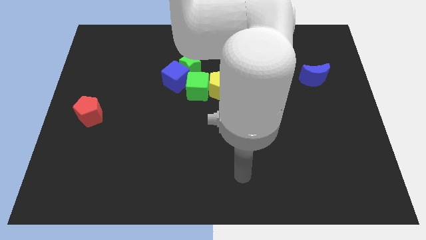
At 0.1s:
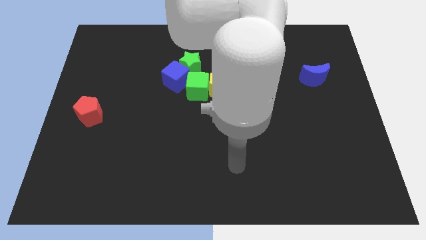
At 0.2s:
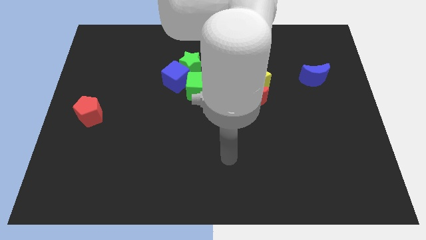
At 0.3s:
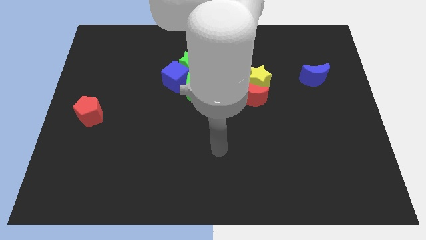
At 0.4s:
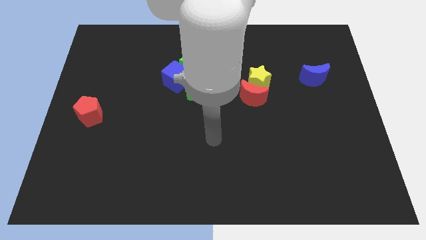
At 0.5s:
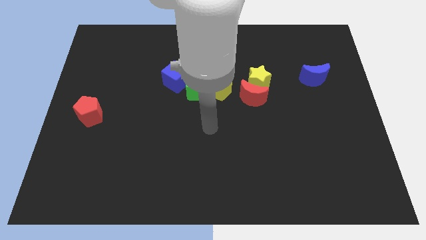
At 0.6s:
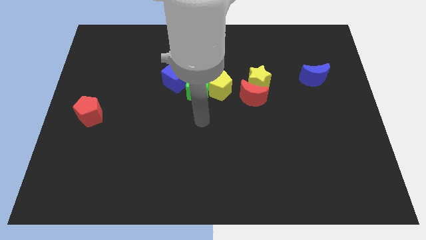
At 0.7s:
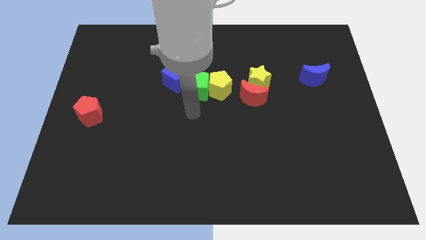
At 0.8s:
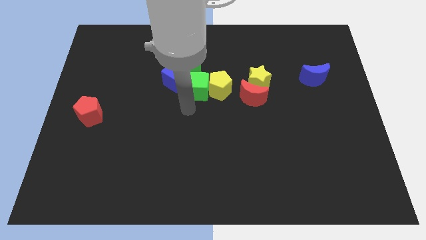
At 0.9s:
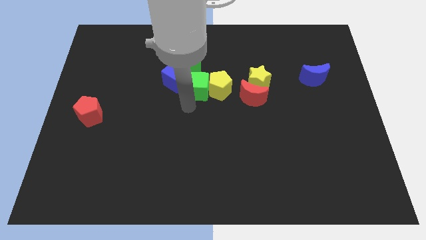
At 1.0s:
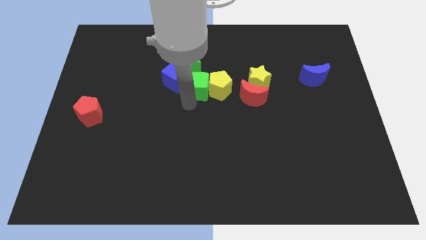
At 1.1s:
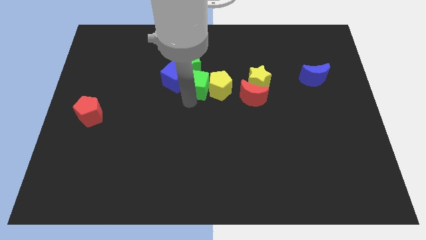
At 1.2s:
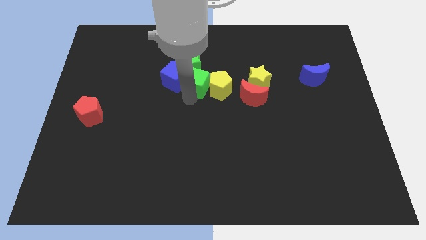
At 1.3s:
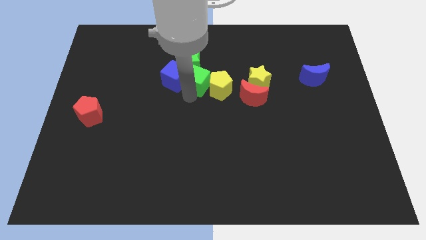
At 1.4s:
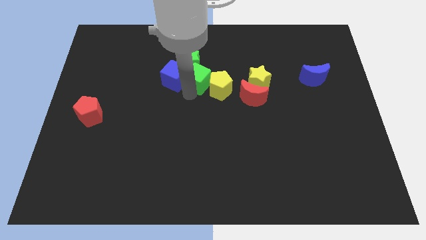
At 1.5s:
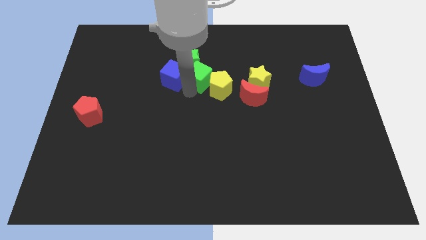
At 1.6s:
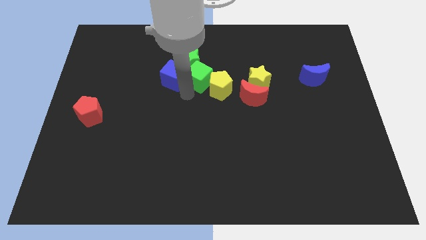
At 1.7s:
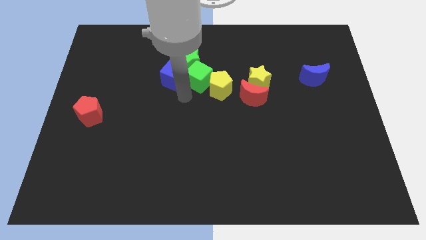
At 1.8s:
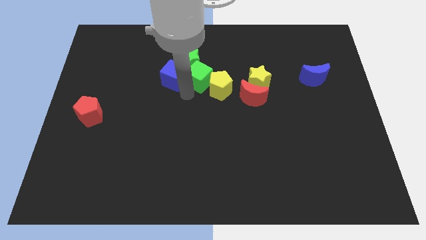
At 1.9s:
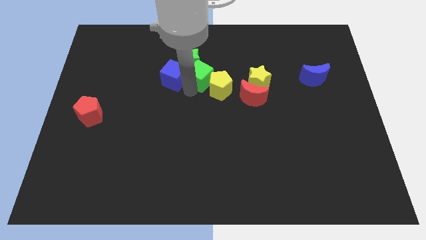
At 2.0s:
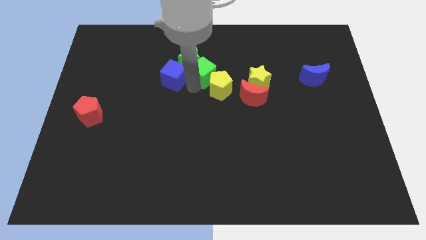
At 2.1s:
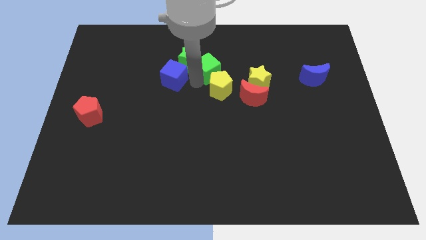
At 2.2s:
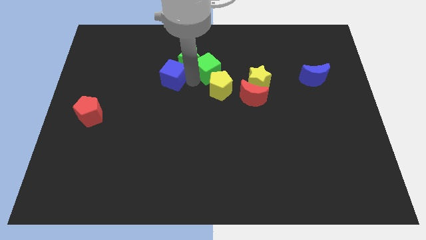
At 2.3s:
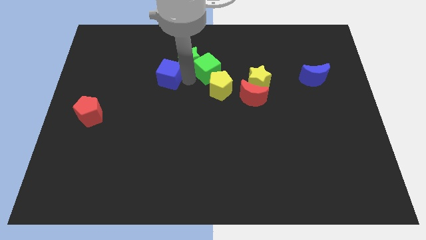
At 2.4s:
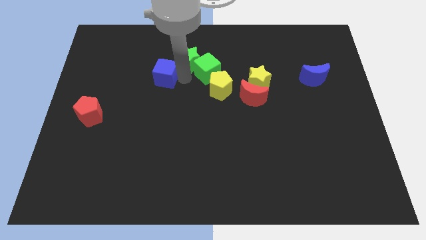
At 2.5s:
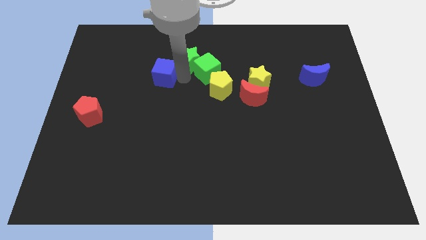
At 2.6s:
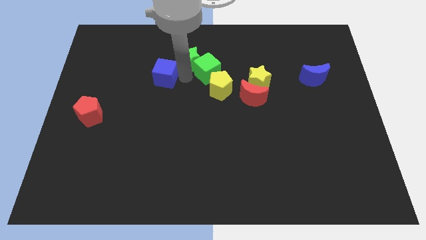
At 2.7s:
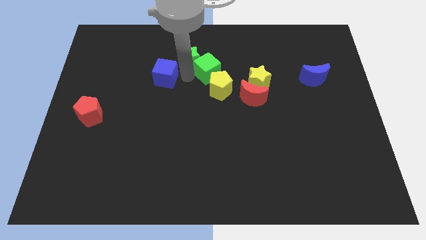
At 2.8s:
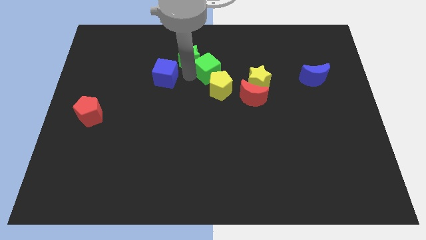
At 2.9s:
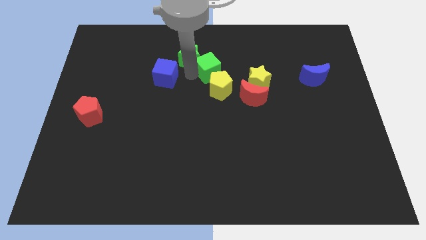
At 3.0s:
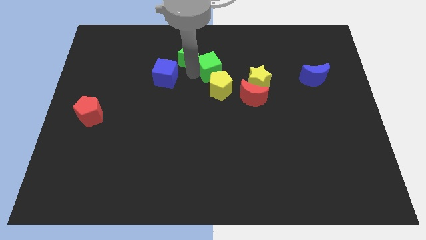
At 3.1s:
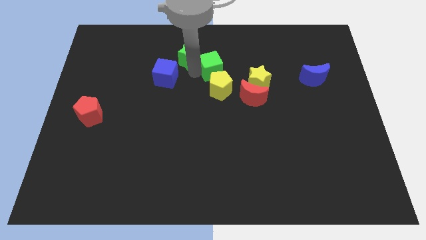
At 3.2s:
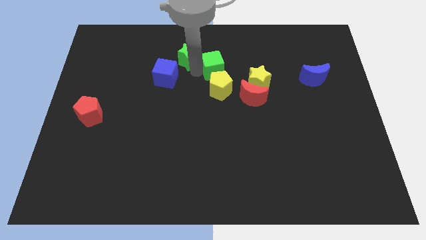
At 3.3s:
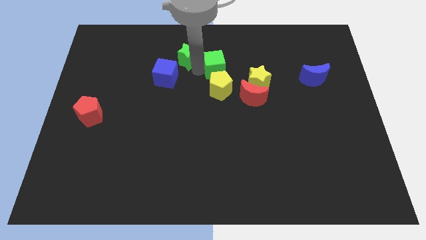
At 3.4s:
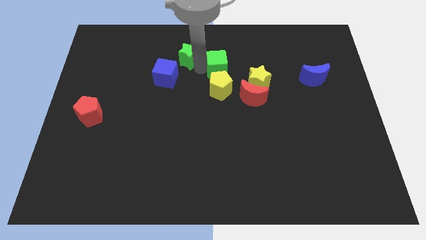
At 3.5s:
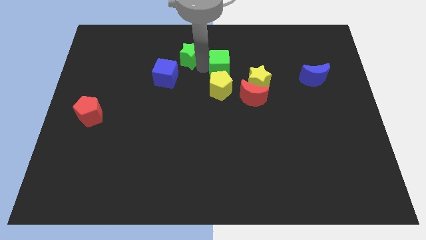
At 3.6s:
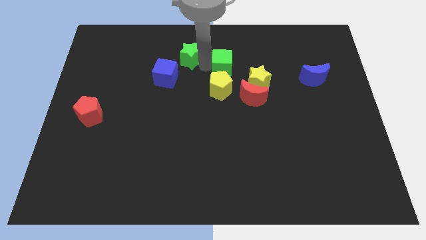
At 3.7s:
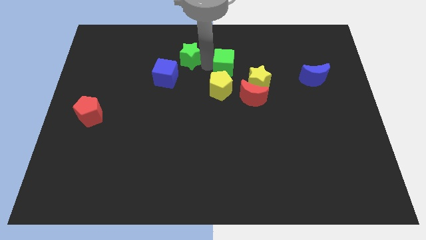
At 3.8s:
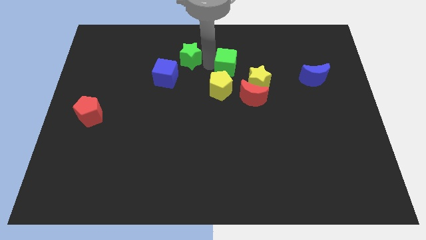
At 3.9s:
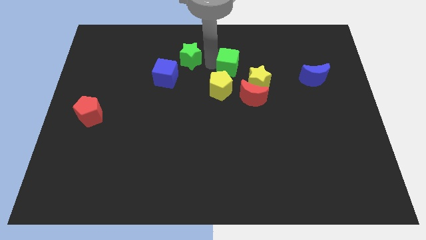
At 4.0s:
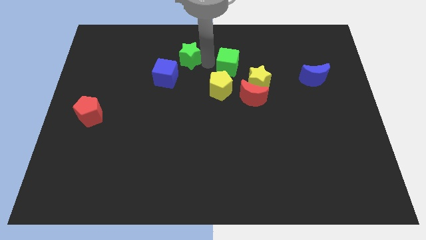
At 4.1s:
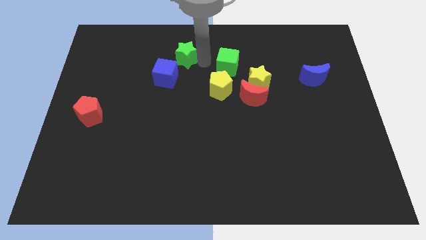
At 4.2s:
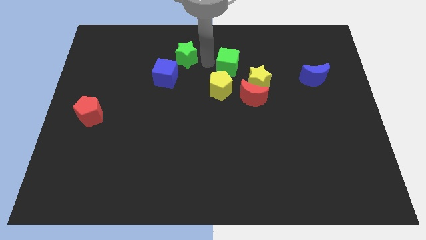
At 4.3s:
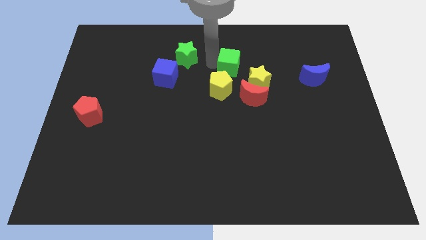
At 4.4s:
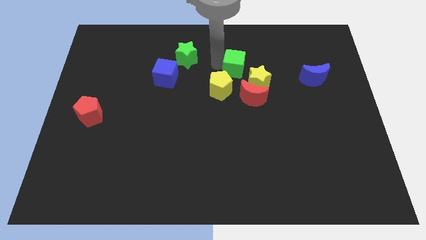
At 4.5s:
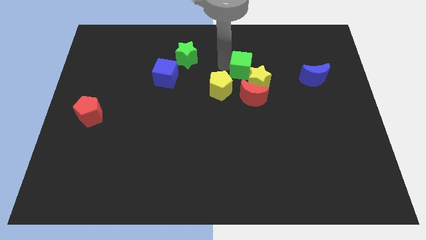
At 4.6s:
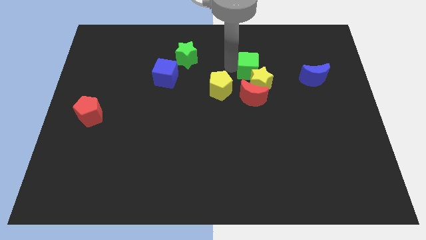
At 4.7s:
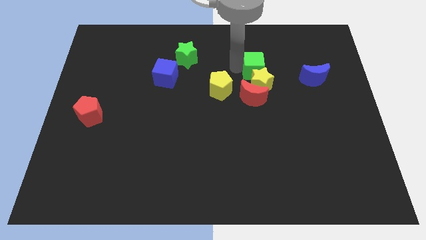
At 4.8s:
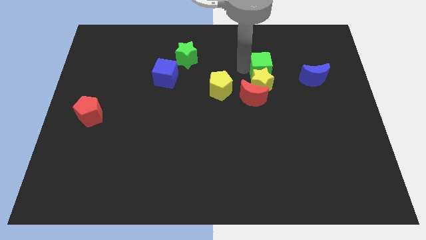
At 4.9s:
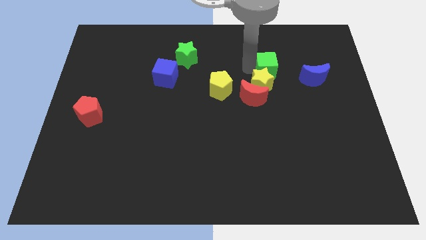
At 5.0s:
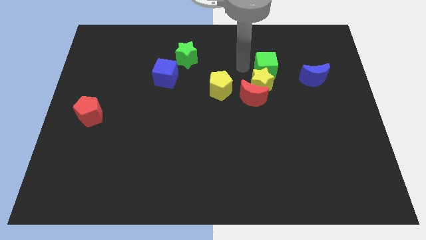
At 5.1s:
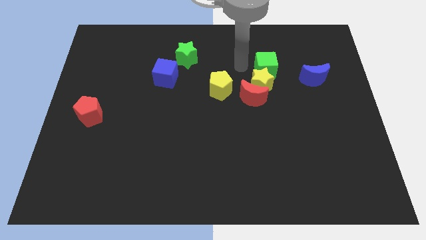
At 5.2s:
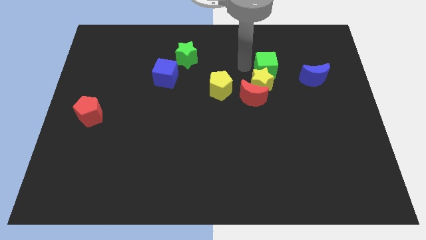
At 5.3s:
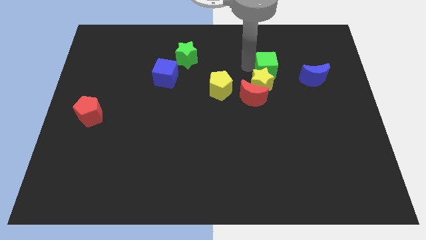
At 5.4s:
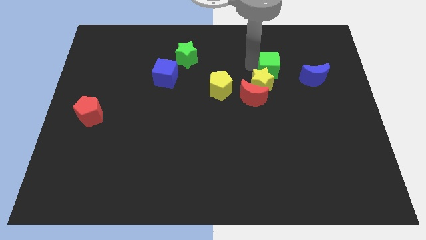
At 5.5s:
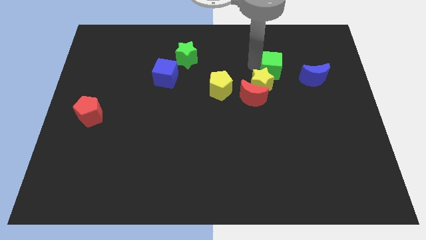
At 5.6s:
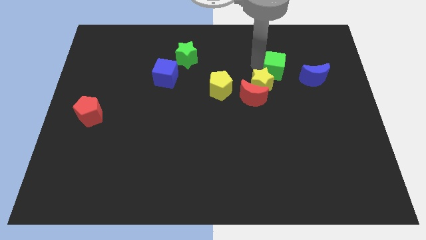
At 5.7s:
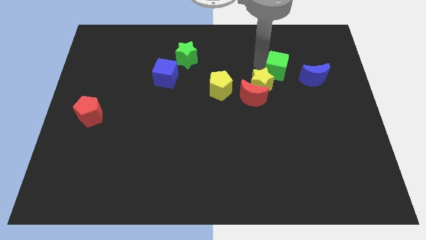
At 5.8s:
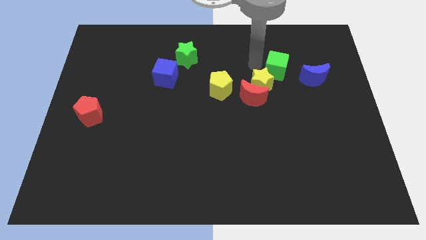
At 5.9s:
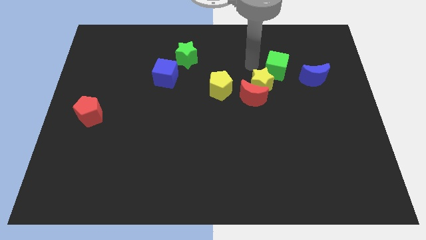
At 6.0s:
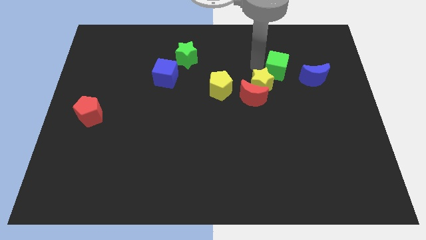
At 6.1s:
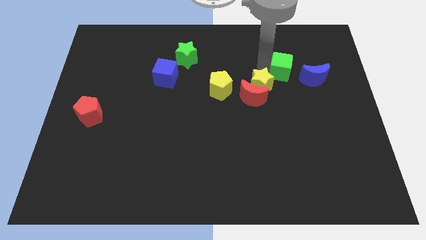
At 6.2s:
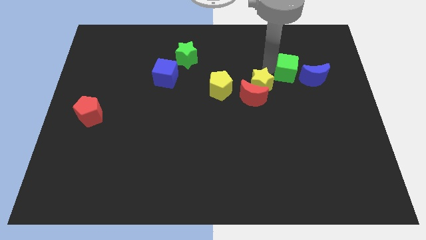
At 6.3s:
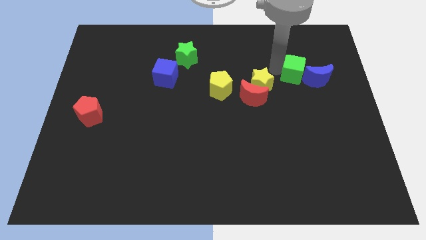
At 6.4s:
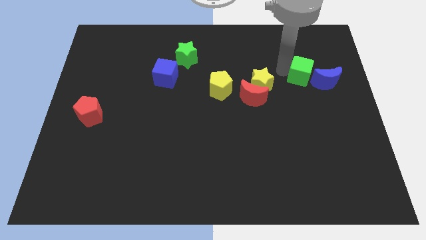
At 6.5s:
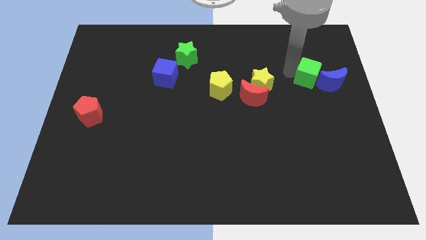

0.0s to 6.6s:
push the green cube to the blue moon

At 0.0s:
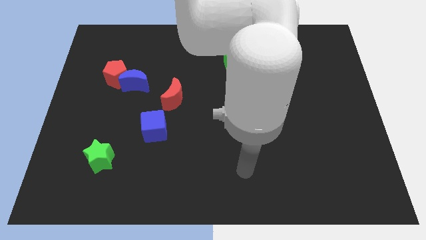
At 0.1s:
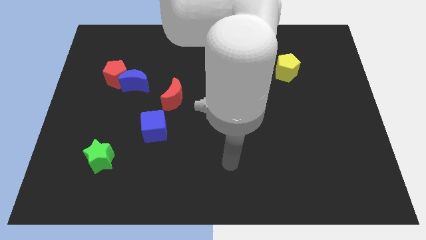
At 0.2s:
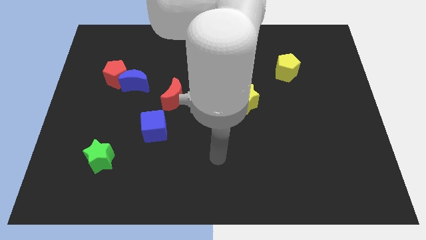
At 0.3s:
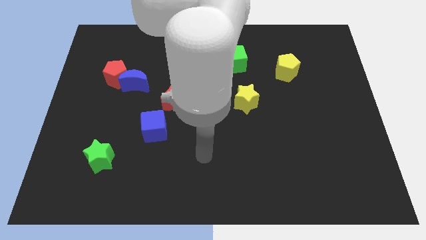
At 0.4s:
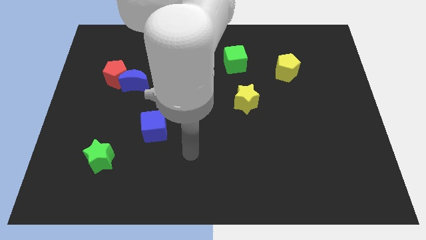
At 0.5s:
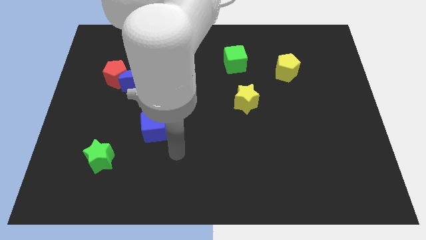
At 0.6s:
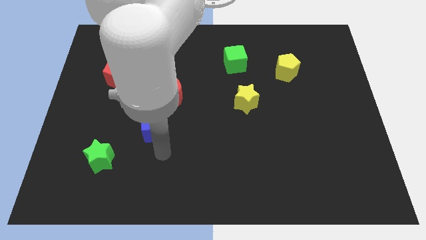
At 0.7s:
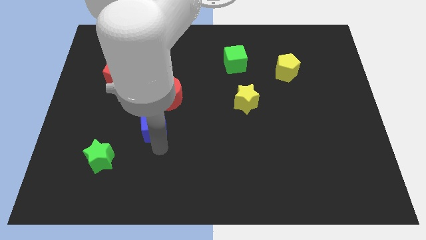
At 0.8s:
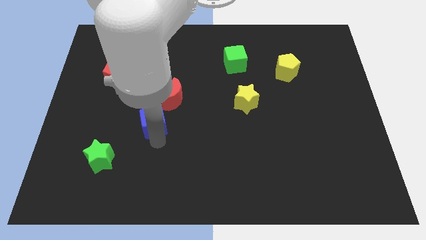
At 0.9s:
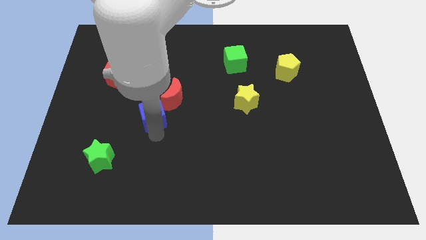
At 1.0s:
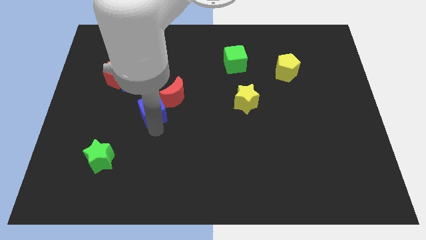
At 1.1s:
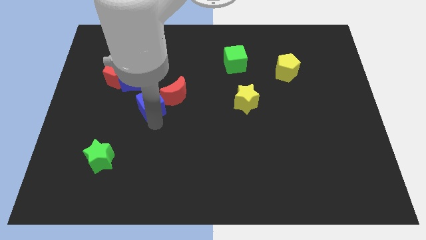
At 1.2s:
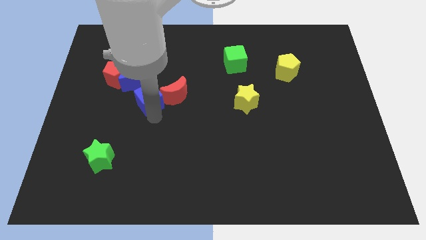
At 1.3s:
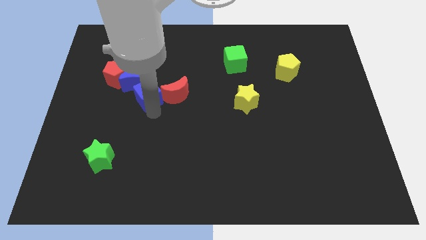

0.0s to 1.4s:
put the blue cube towards the blue moon
